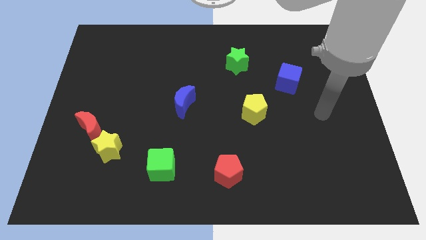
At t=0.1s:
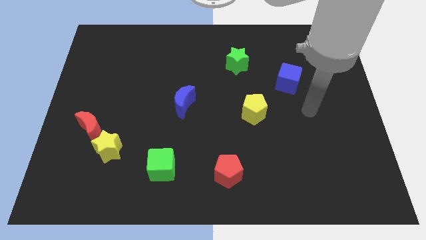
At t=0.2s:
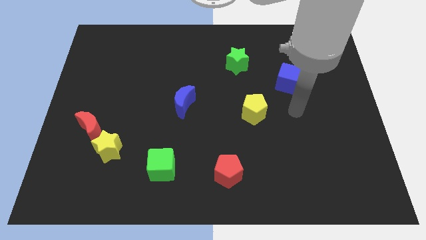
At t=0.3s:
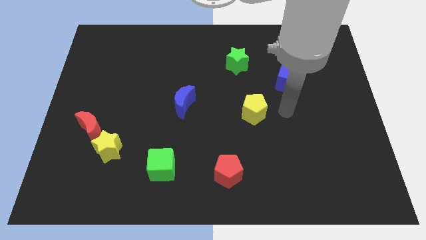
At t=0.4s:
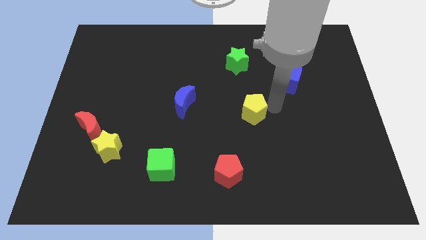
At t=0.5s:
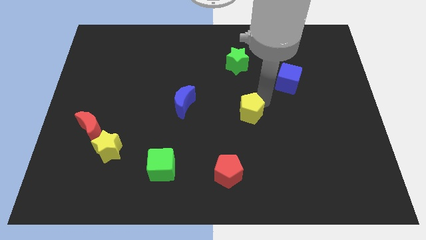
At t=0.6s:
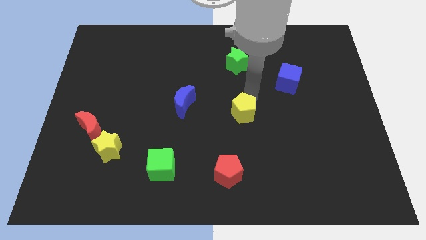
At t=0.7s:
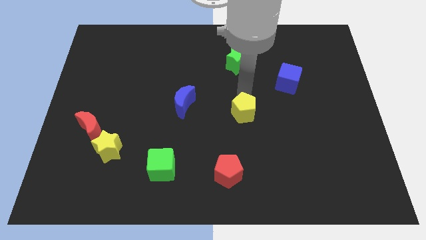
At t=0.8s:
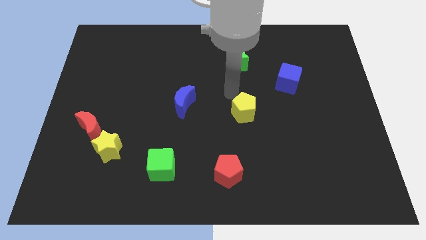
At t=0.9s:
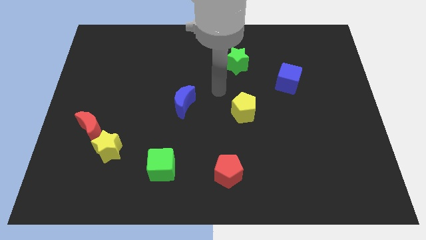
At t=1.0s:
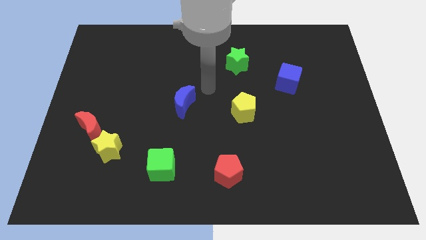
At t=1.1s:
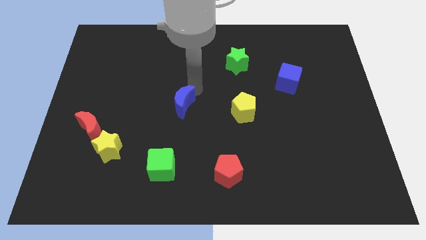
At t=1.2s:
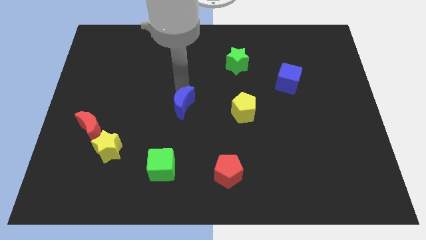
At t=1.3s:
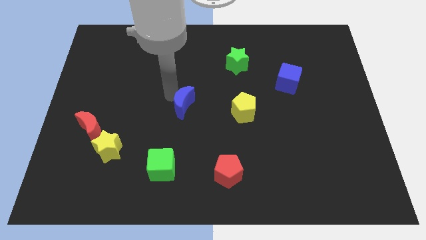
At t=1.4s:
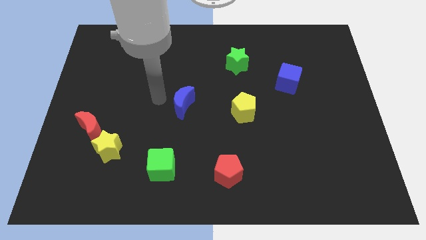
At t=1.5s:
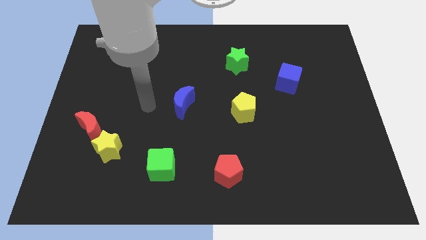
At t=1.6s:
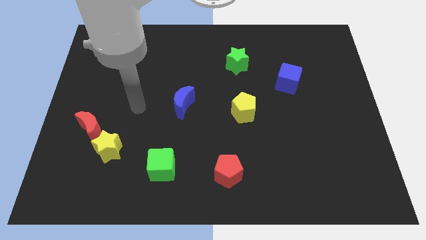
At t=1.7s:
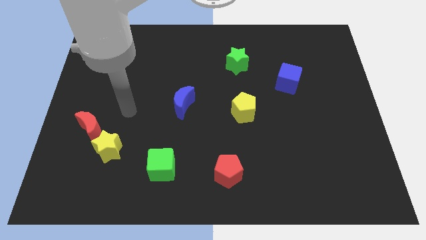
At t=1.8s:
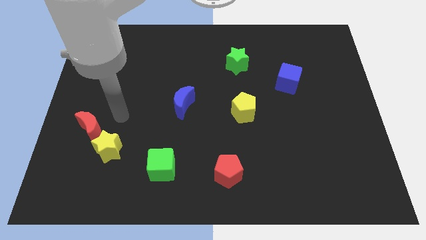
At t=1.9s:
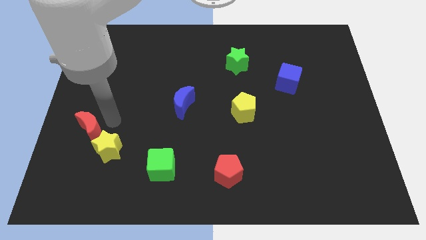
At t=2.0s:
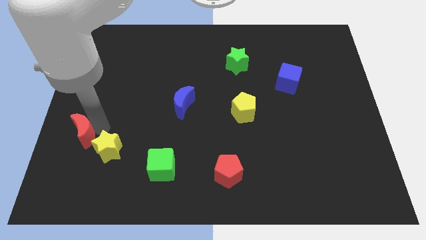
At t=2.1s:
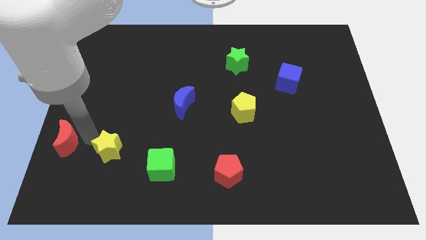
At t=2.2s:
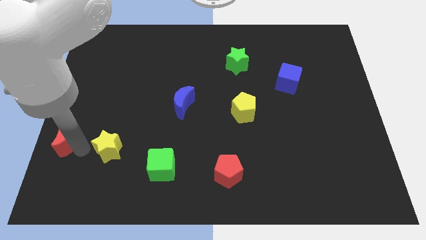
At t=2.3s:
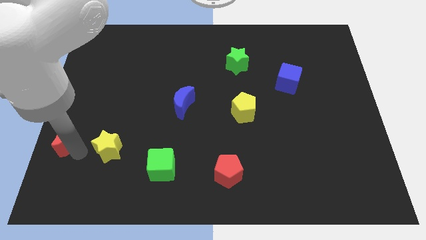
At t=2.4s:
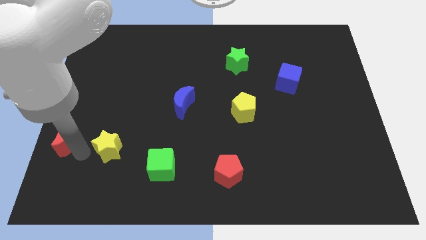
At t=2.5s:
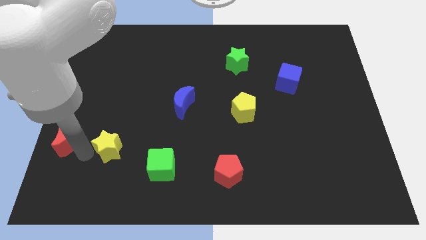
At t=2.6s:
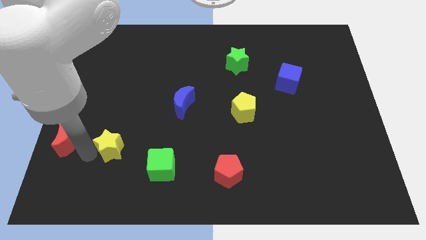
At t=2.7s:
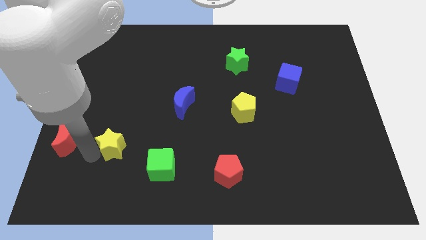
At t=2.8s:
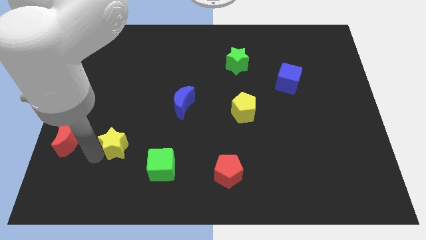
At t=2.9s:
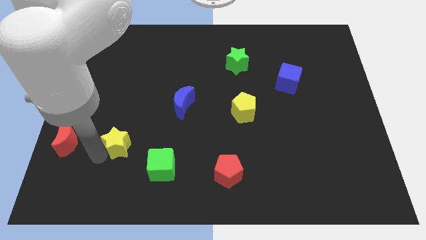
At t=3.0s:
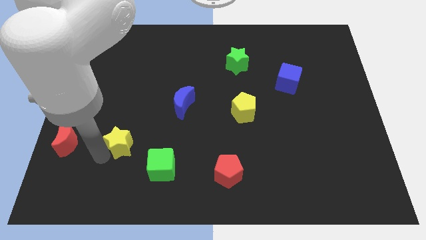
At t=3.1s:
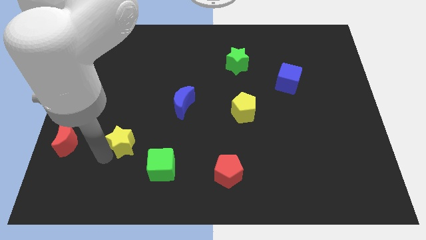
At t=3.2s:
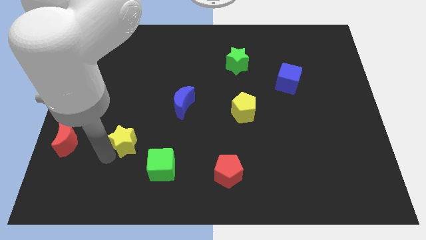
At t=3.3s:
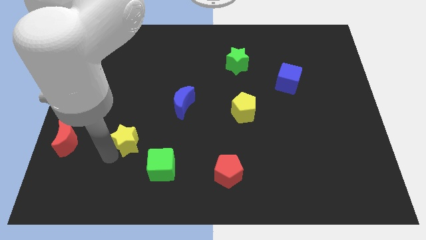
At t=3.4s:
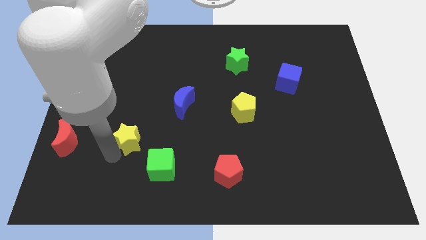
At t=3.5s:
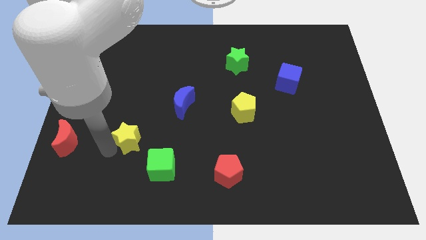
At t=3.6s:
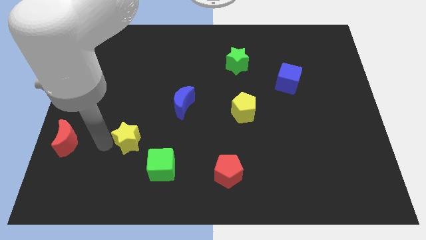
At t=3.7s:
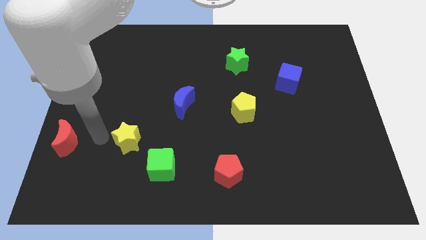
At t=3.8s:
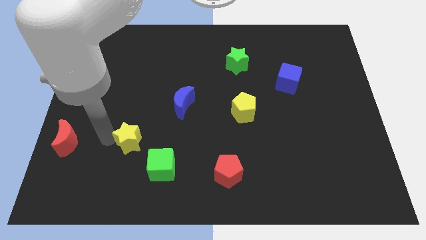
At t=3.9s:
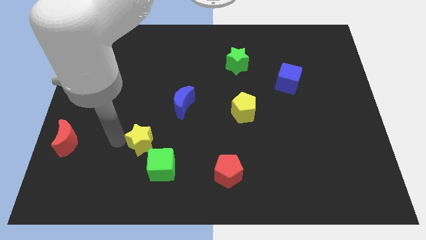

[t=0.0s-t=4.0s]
slightly slide the yellow star to the right

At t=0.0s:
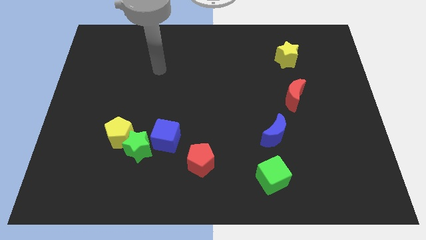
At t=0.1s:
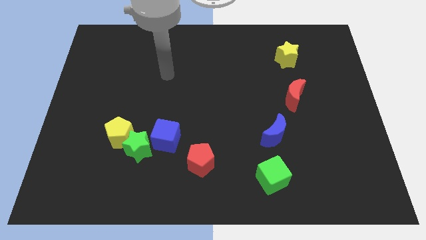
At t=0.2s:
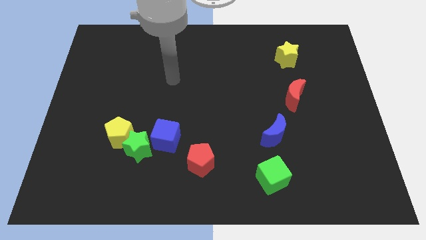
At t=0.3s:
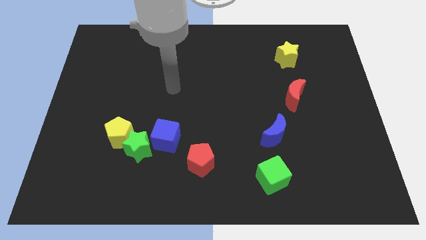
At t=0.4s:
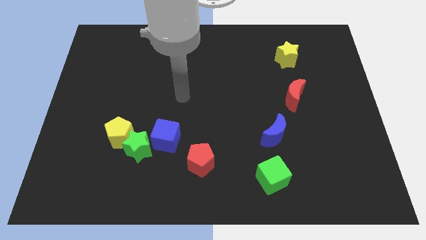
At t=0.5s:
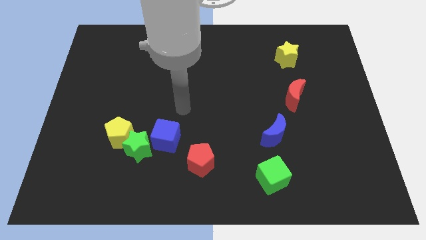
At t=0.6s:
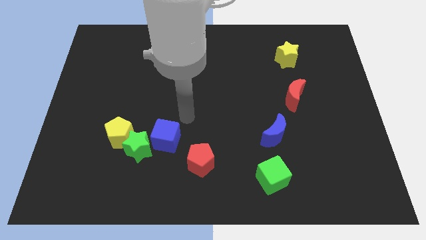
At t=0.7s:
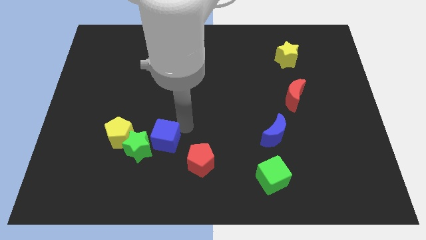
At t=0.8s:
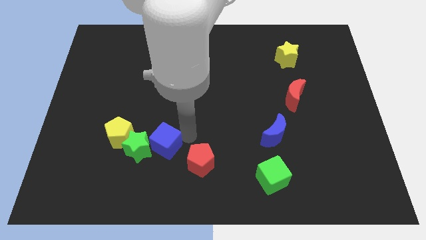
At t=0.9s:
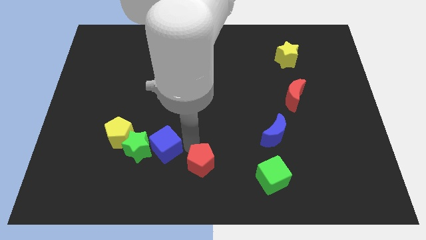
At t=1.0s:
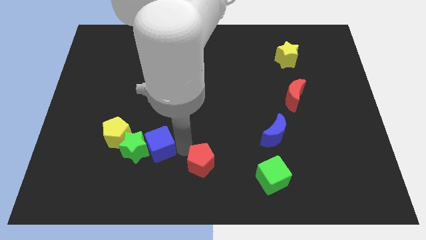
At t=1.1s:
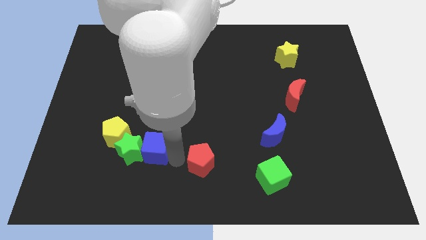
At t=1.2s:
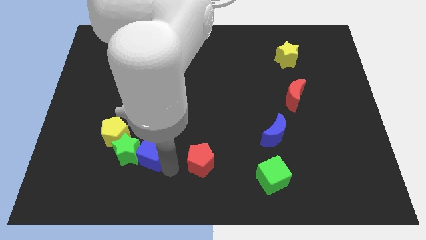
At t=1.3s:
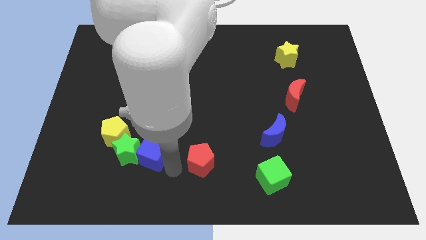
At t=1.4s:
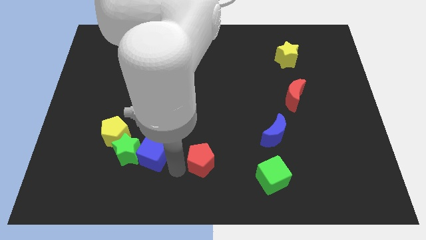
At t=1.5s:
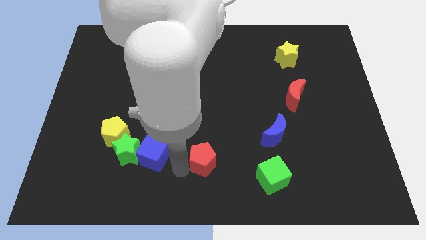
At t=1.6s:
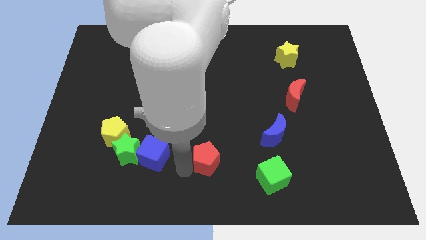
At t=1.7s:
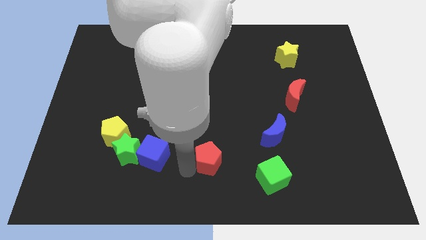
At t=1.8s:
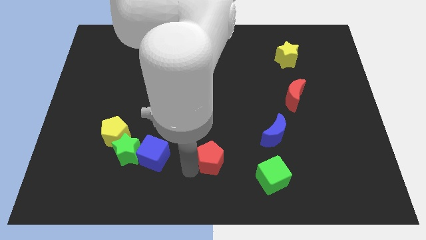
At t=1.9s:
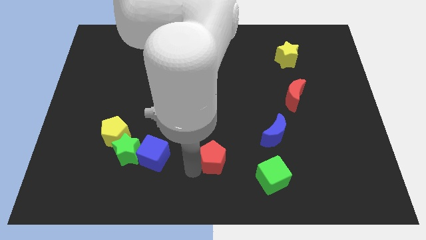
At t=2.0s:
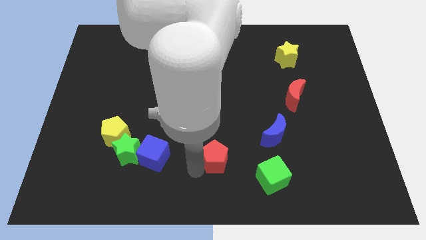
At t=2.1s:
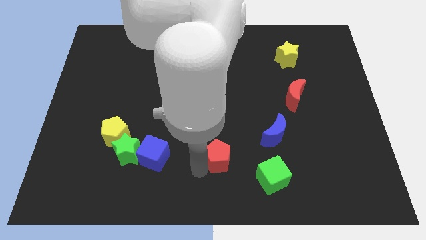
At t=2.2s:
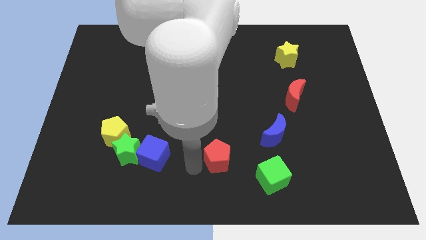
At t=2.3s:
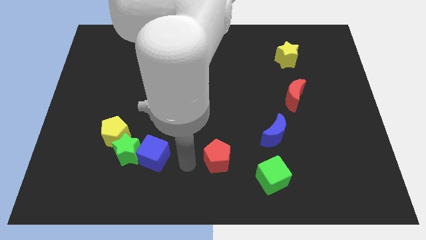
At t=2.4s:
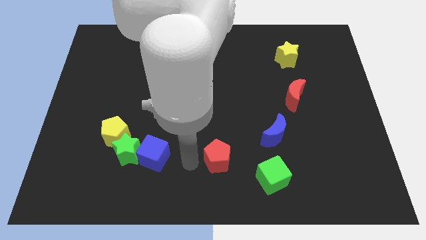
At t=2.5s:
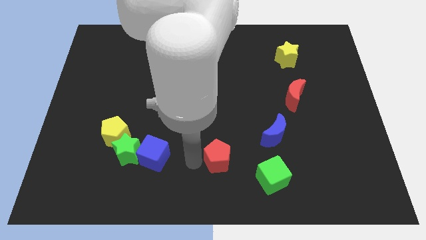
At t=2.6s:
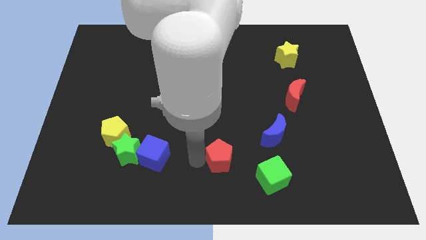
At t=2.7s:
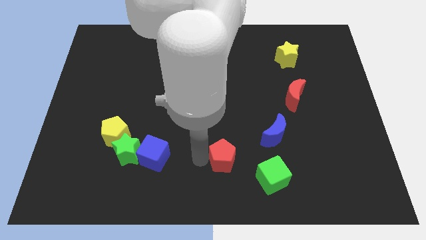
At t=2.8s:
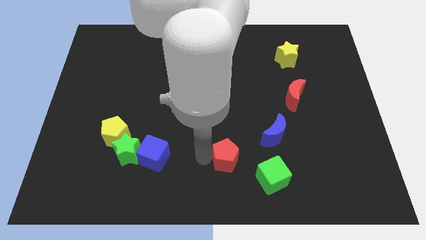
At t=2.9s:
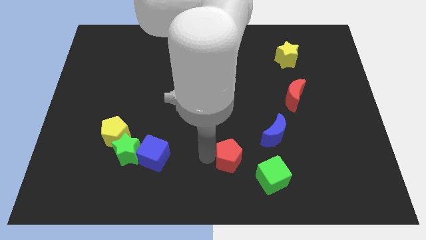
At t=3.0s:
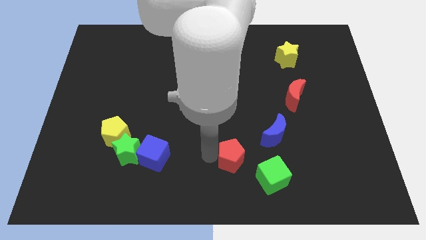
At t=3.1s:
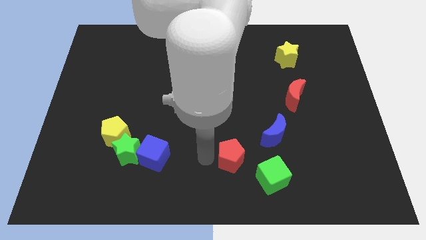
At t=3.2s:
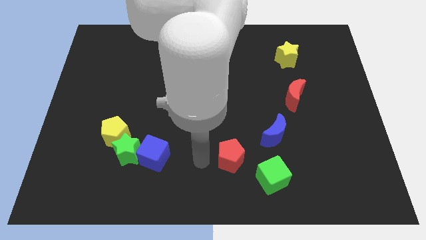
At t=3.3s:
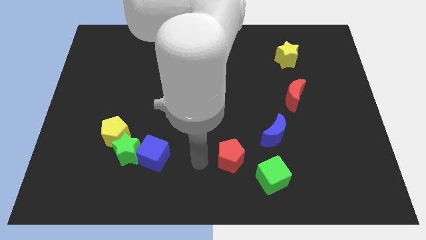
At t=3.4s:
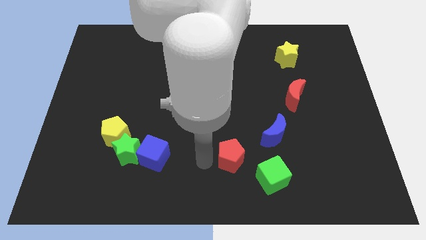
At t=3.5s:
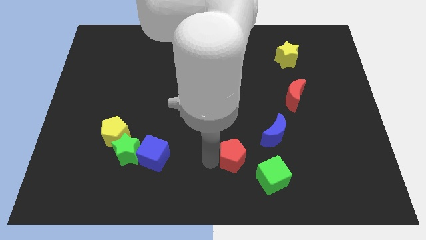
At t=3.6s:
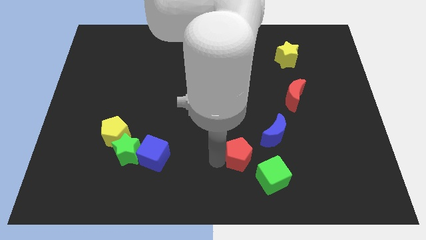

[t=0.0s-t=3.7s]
slightly push the red pentagon right
